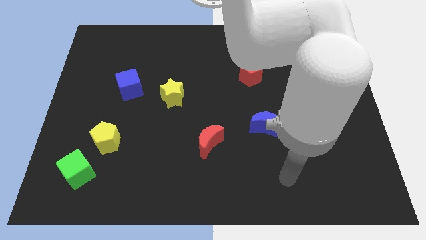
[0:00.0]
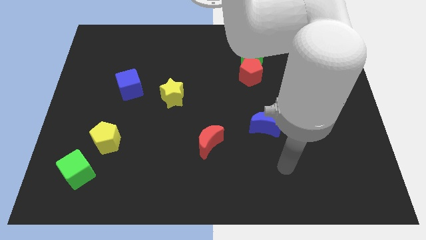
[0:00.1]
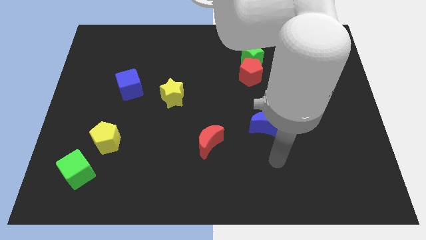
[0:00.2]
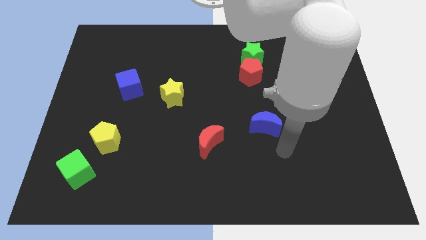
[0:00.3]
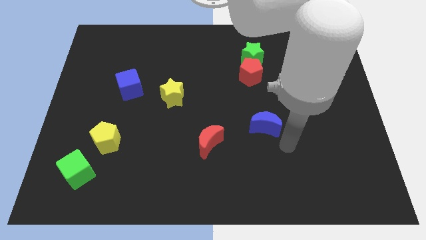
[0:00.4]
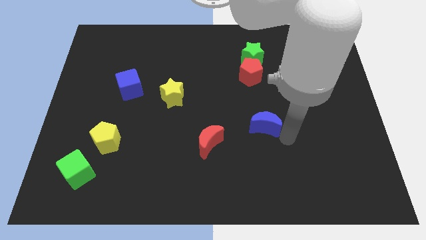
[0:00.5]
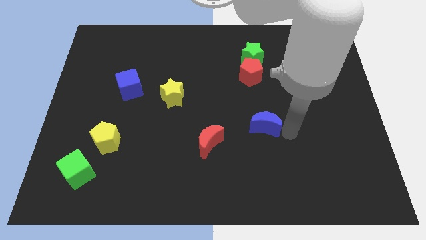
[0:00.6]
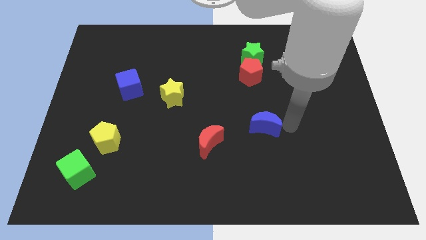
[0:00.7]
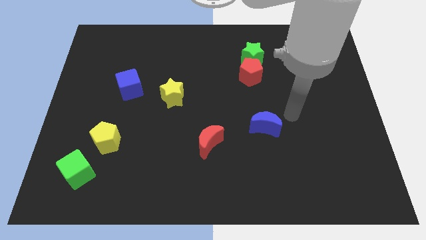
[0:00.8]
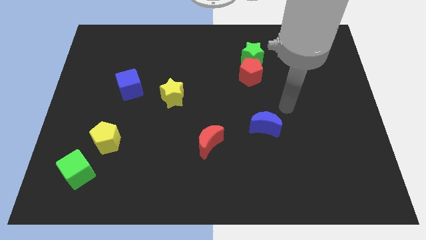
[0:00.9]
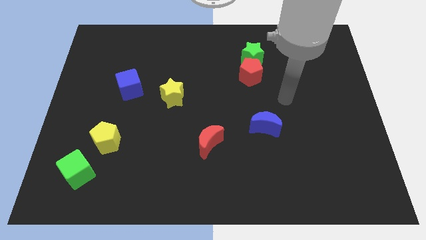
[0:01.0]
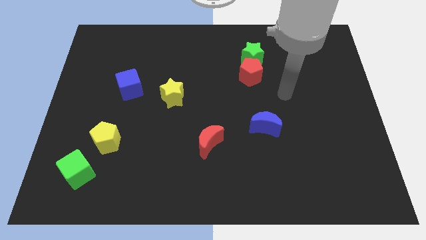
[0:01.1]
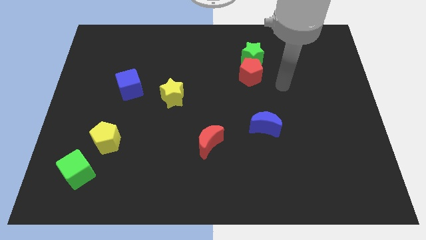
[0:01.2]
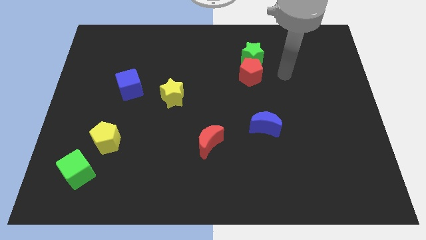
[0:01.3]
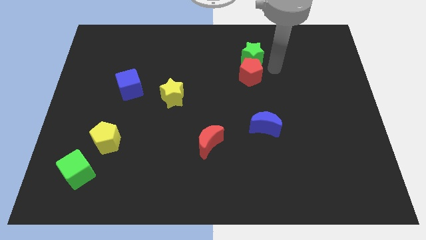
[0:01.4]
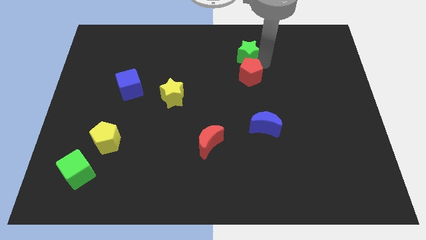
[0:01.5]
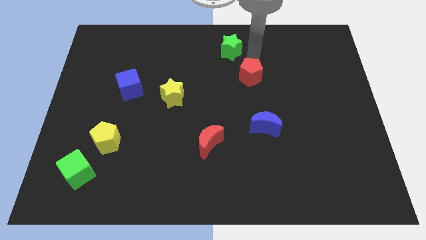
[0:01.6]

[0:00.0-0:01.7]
separate the red pentagon from the green star

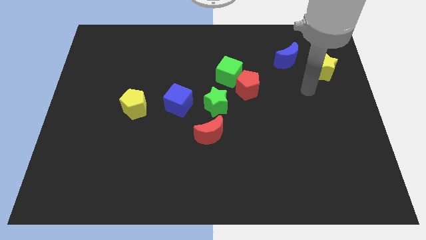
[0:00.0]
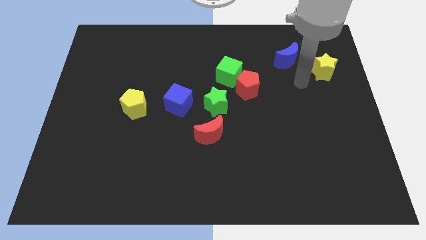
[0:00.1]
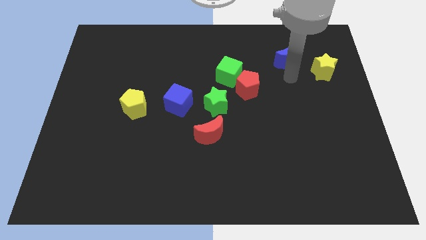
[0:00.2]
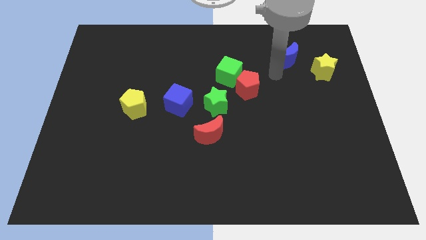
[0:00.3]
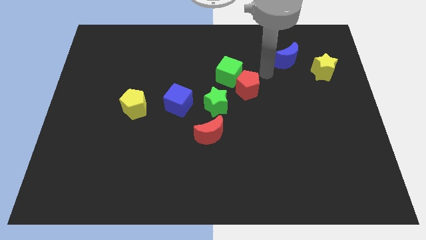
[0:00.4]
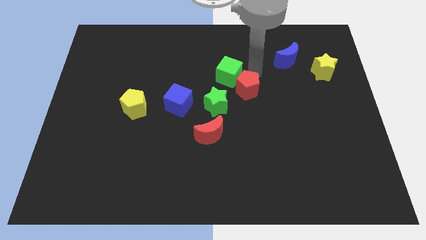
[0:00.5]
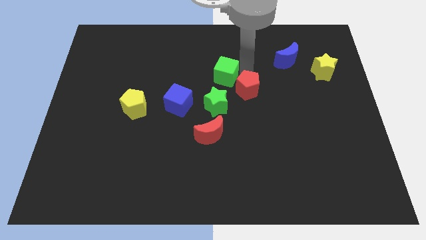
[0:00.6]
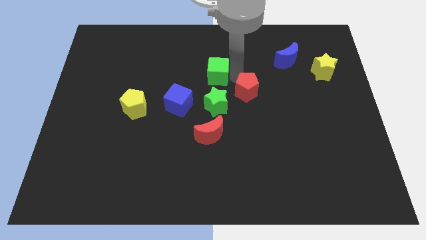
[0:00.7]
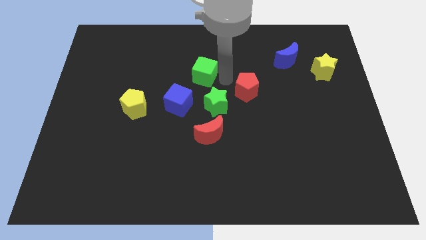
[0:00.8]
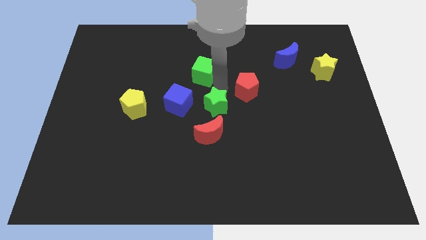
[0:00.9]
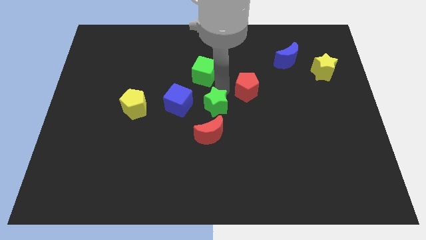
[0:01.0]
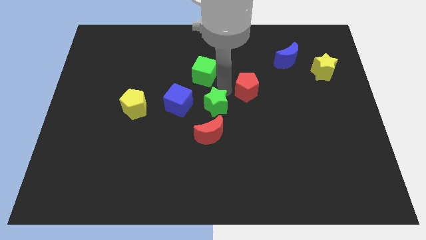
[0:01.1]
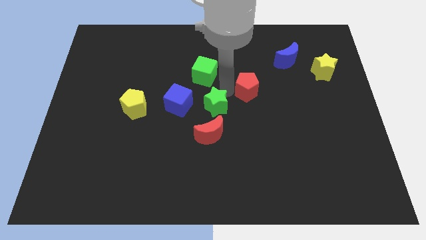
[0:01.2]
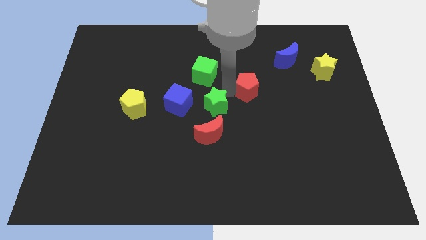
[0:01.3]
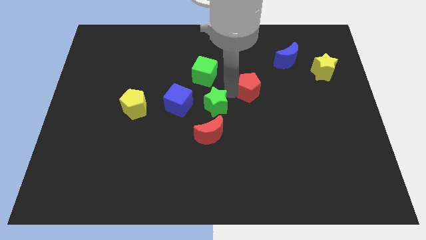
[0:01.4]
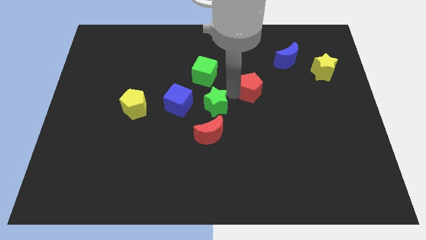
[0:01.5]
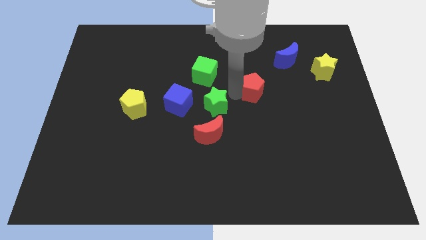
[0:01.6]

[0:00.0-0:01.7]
pull the red pentagon apart from the green cube and green star

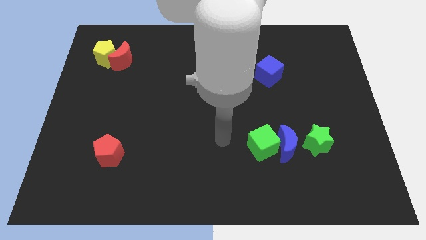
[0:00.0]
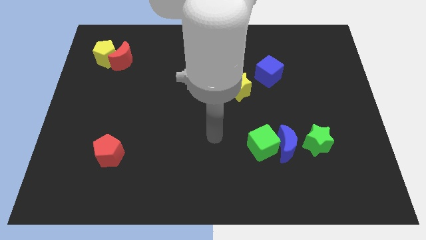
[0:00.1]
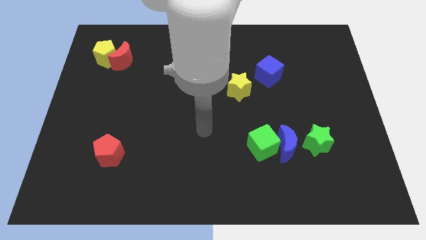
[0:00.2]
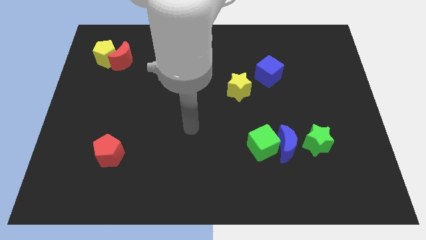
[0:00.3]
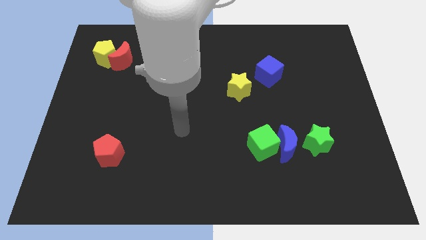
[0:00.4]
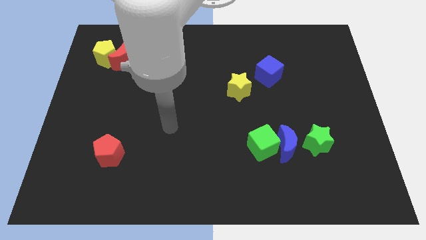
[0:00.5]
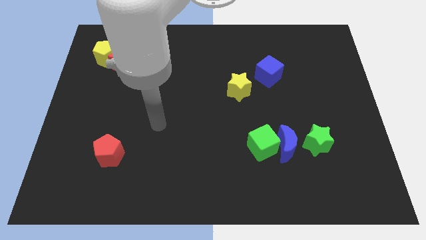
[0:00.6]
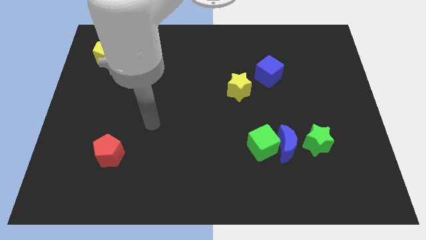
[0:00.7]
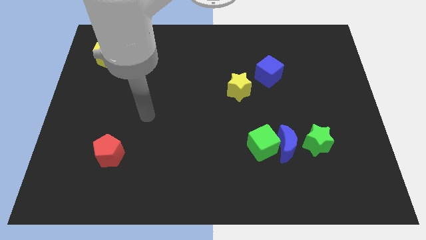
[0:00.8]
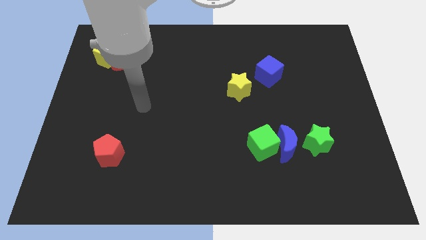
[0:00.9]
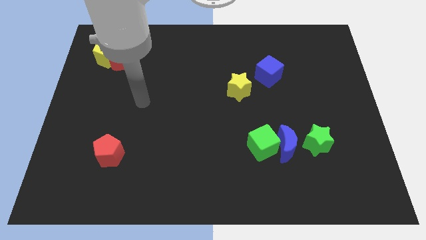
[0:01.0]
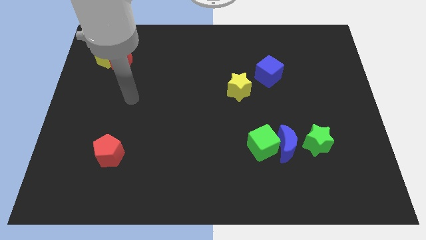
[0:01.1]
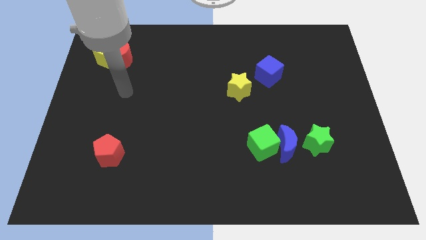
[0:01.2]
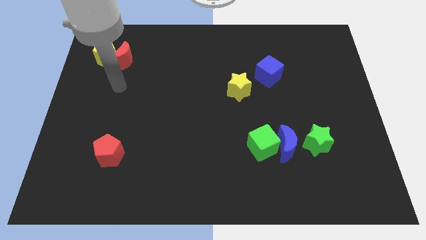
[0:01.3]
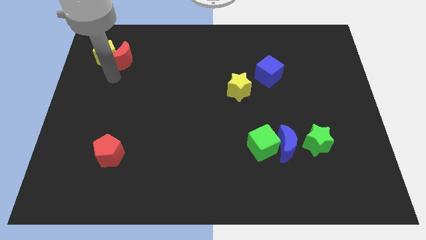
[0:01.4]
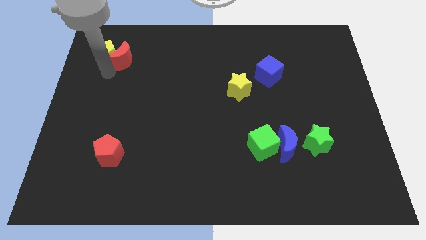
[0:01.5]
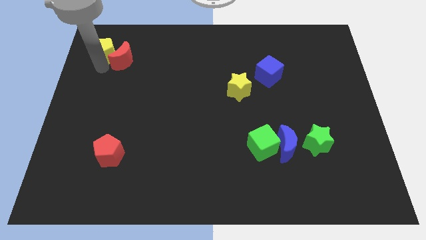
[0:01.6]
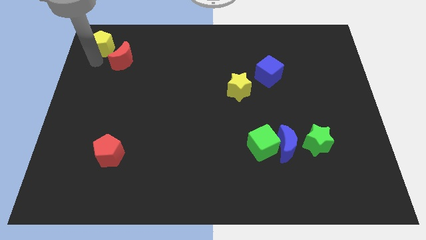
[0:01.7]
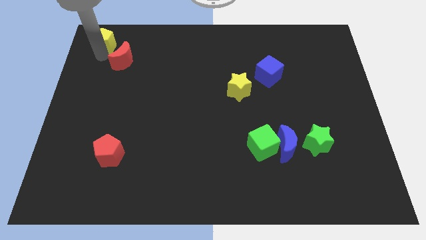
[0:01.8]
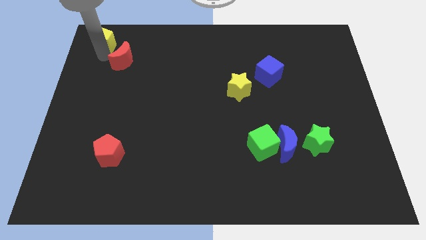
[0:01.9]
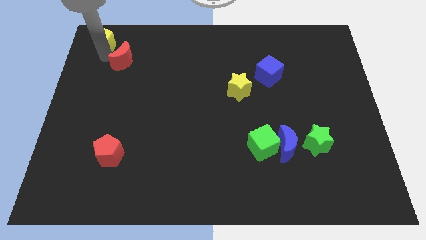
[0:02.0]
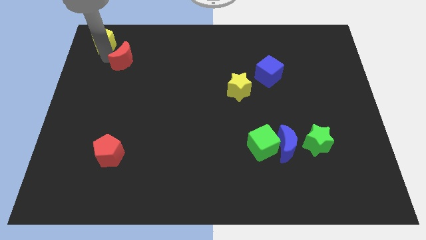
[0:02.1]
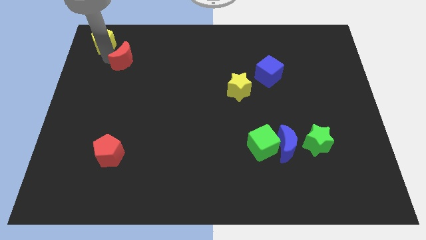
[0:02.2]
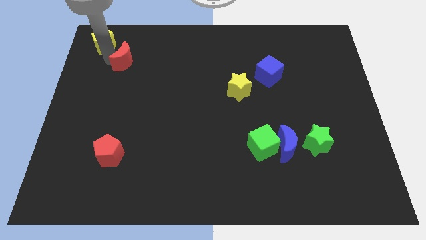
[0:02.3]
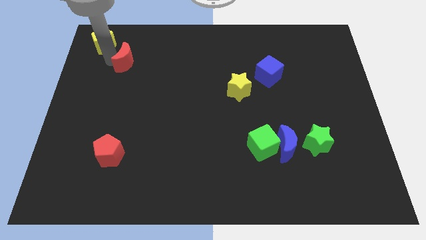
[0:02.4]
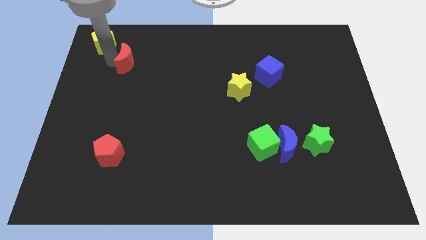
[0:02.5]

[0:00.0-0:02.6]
move the red moon away from the yellow pentagon

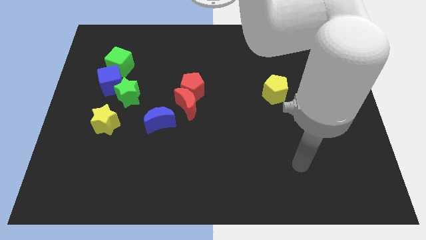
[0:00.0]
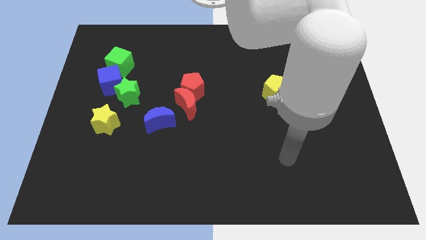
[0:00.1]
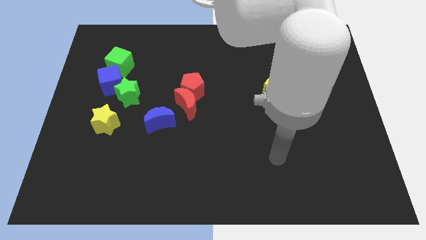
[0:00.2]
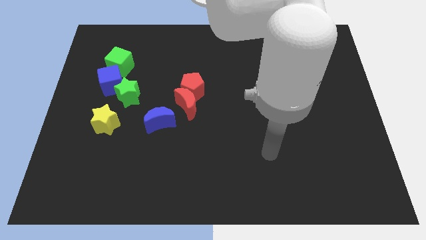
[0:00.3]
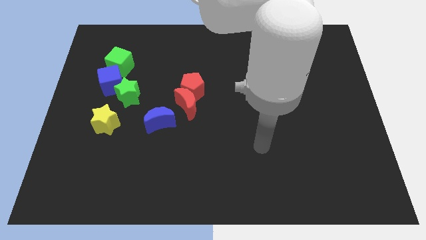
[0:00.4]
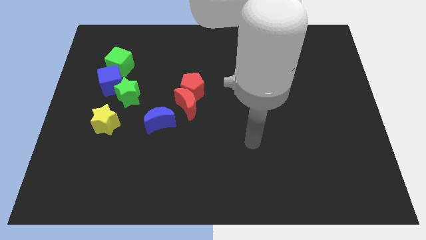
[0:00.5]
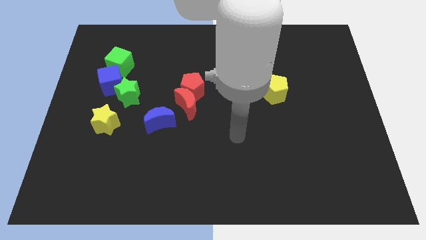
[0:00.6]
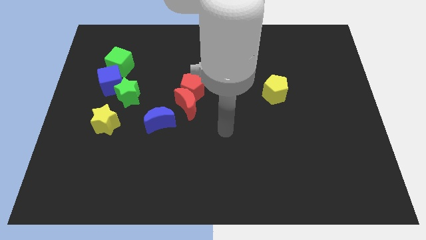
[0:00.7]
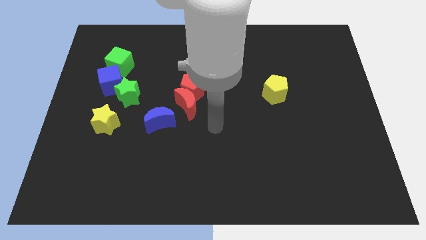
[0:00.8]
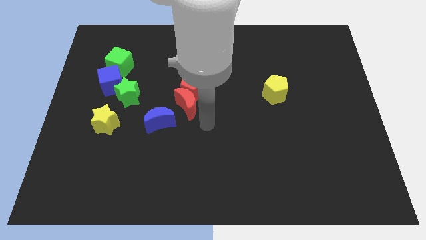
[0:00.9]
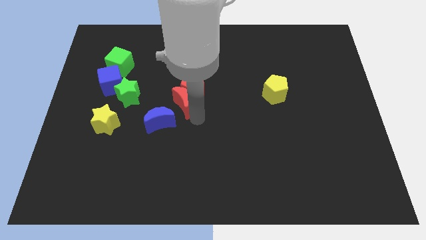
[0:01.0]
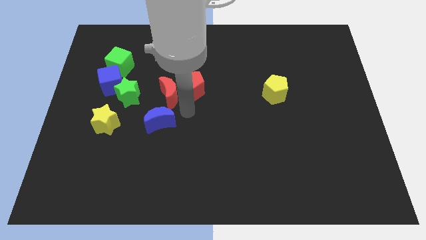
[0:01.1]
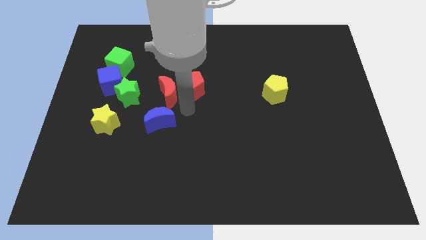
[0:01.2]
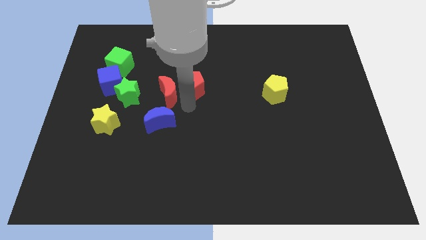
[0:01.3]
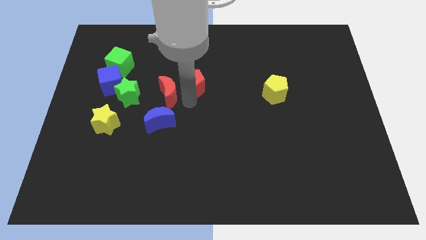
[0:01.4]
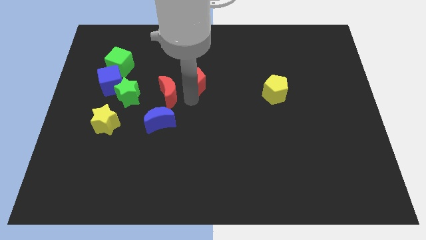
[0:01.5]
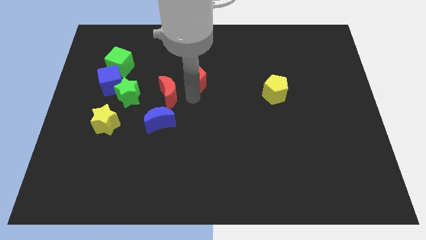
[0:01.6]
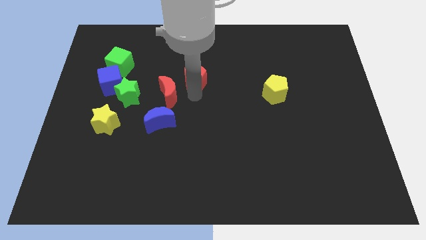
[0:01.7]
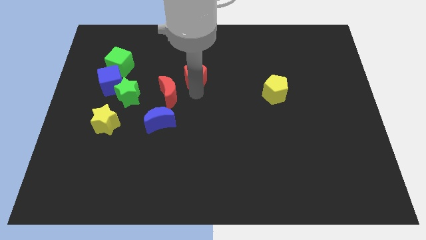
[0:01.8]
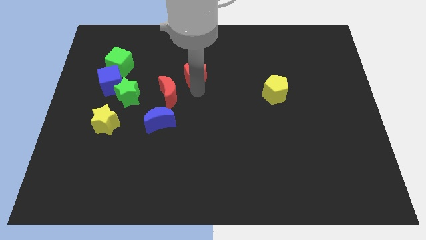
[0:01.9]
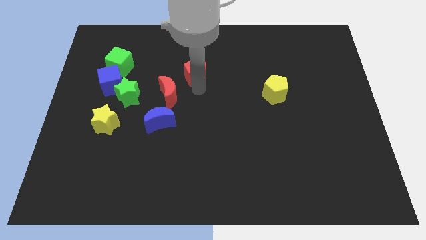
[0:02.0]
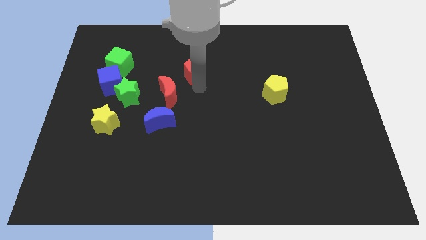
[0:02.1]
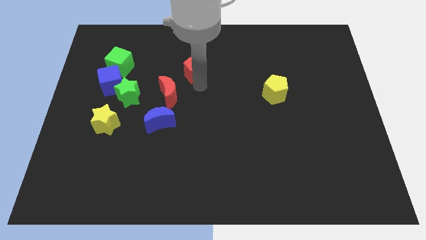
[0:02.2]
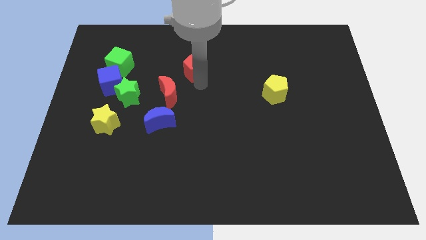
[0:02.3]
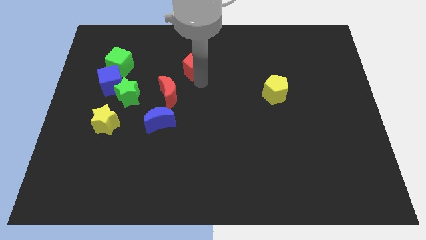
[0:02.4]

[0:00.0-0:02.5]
separate the red pentagon from the red moon

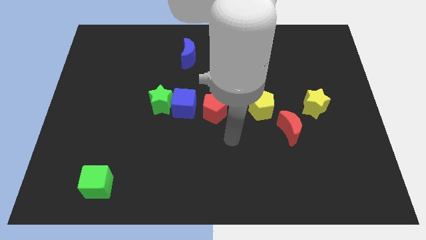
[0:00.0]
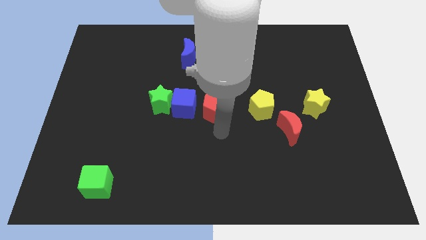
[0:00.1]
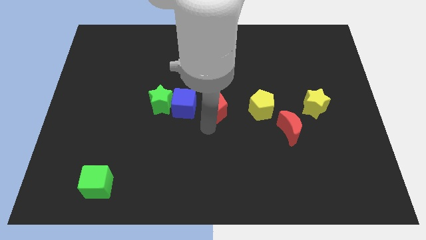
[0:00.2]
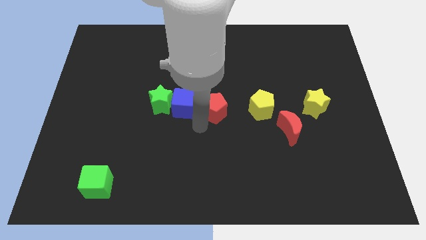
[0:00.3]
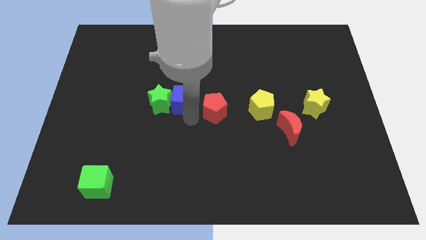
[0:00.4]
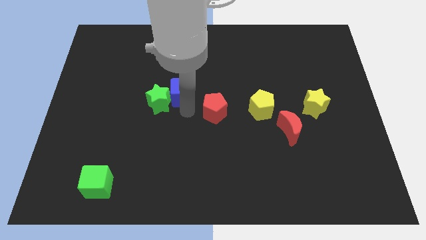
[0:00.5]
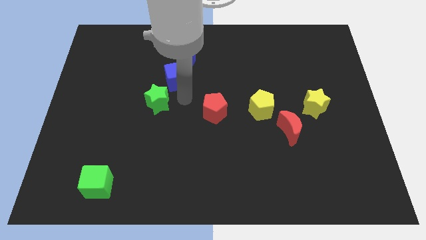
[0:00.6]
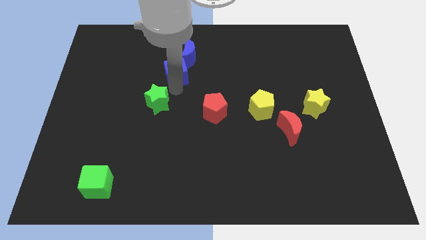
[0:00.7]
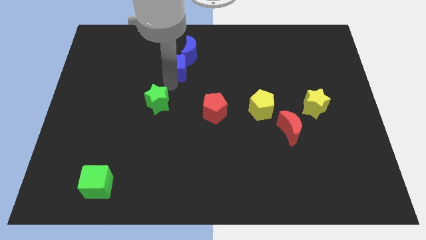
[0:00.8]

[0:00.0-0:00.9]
move the green star away from the blue cube

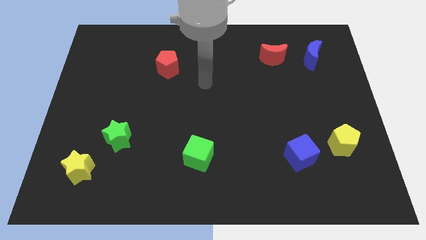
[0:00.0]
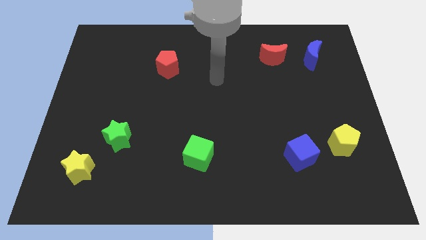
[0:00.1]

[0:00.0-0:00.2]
move the red moon away from the blue moon
